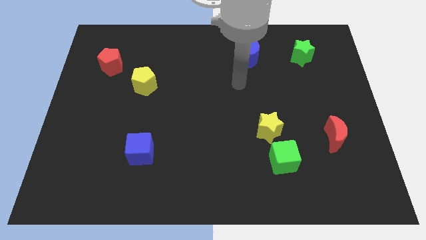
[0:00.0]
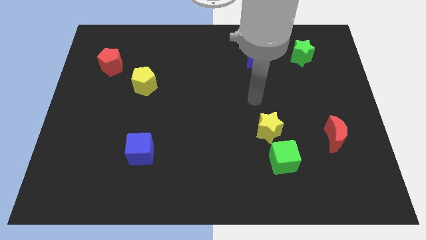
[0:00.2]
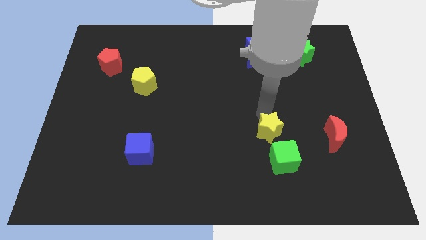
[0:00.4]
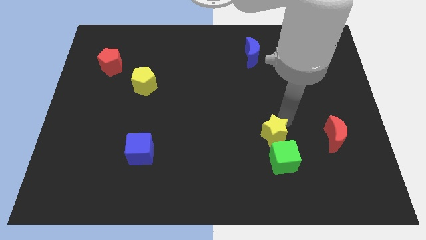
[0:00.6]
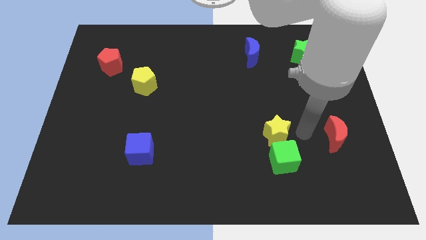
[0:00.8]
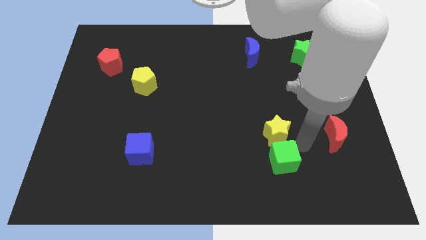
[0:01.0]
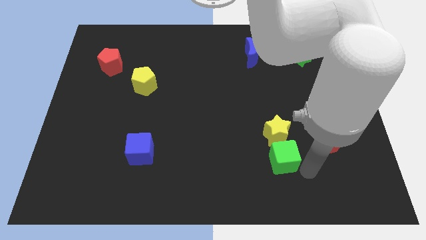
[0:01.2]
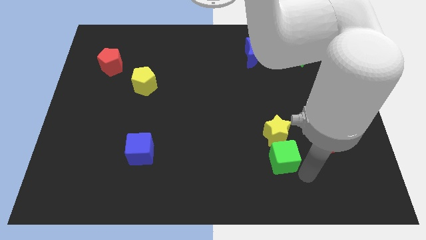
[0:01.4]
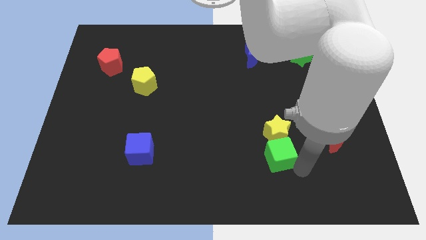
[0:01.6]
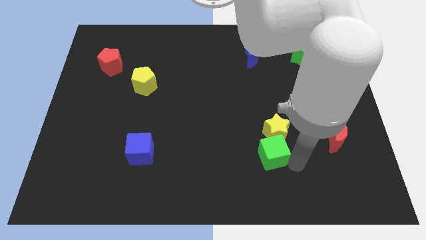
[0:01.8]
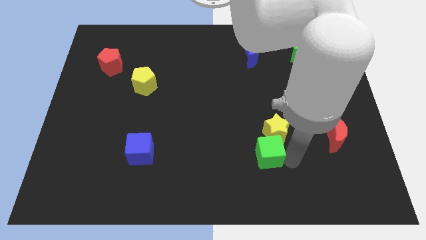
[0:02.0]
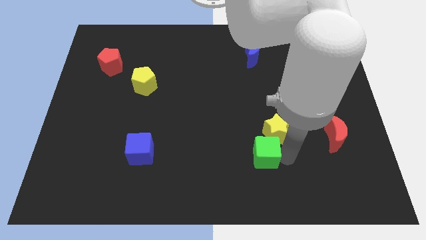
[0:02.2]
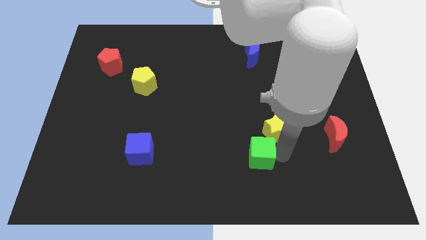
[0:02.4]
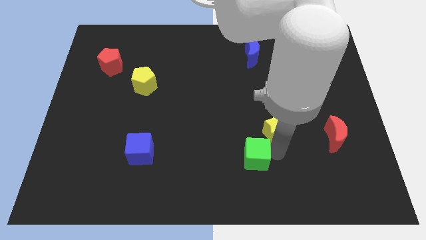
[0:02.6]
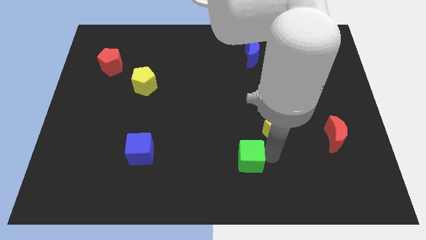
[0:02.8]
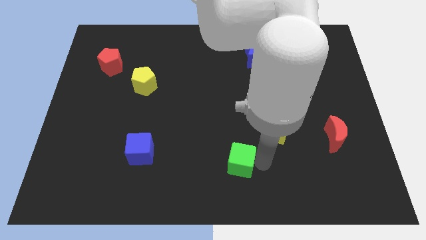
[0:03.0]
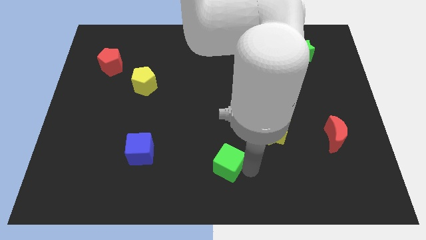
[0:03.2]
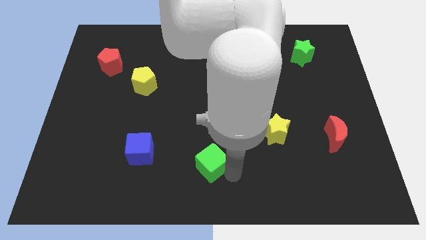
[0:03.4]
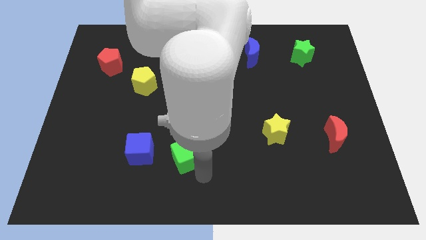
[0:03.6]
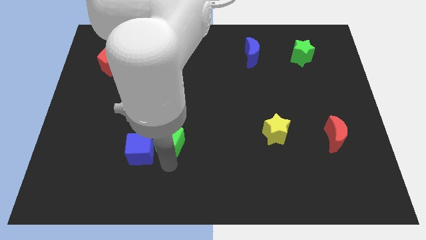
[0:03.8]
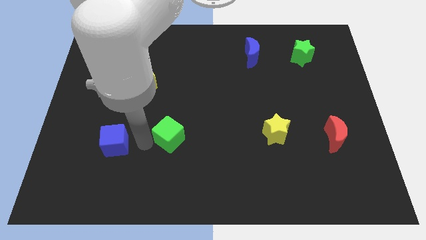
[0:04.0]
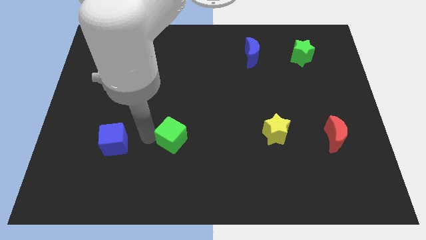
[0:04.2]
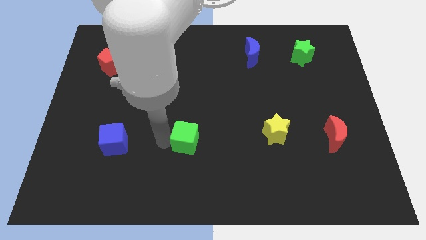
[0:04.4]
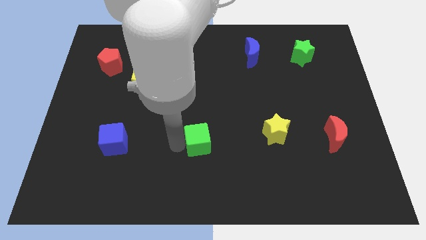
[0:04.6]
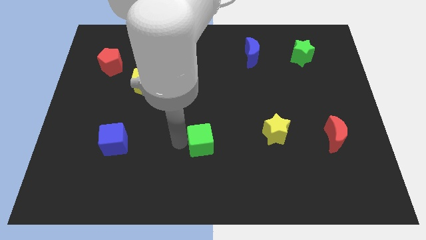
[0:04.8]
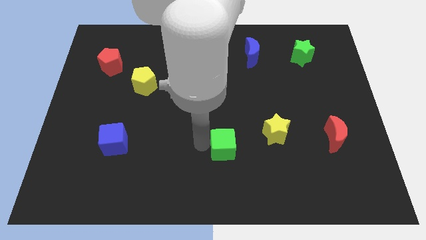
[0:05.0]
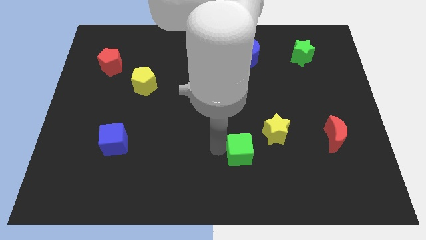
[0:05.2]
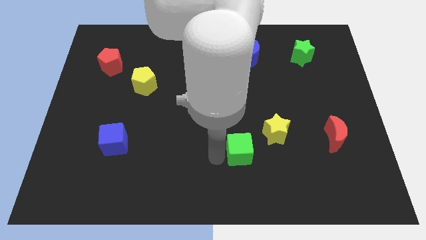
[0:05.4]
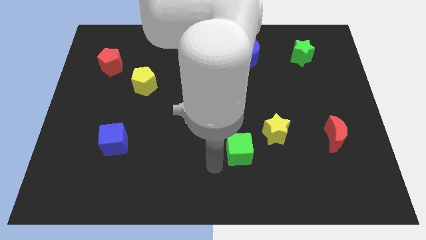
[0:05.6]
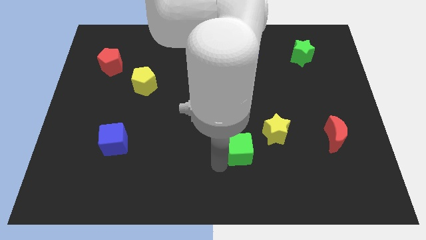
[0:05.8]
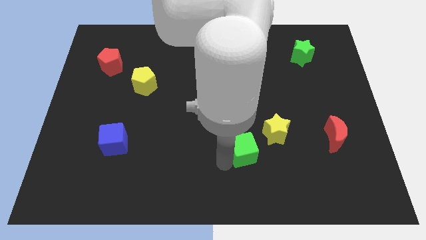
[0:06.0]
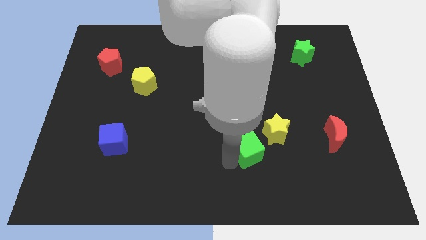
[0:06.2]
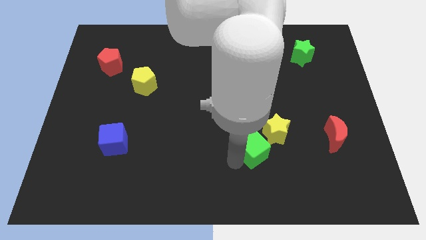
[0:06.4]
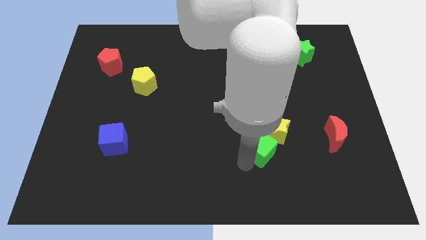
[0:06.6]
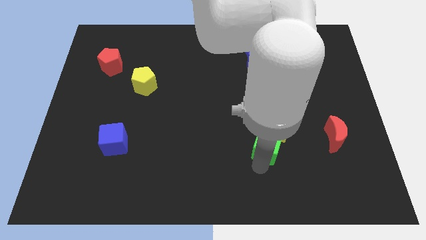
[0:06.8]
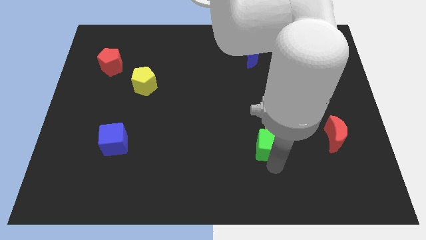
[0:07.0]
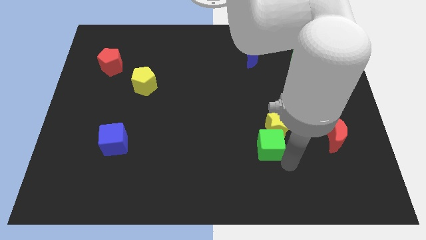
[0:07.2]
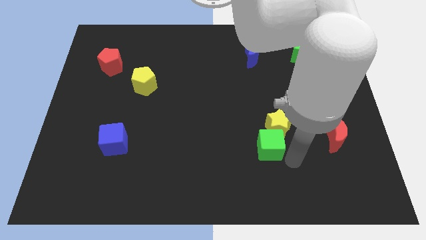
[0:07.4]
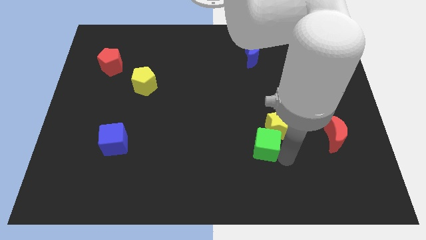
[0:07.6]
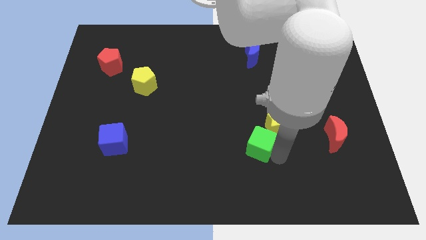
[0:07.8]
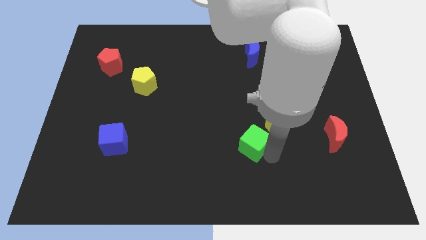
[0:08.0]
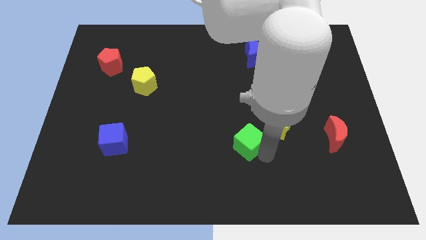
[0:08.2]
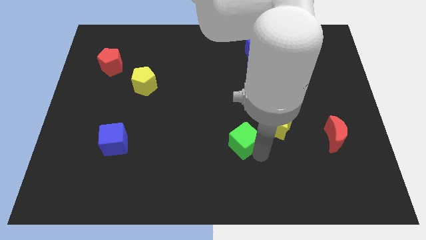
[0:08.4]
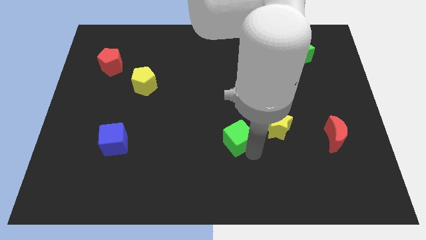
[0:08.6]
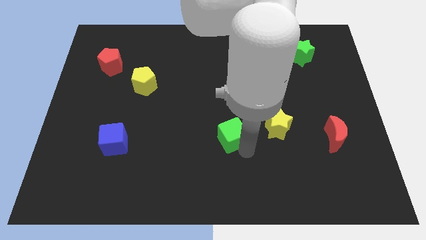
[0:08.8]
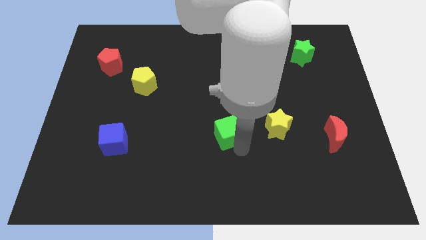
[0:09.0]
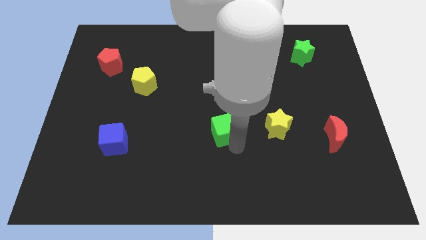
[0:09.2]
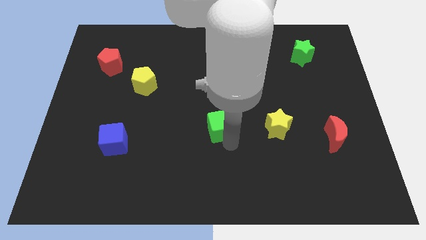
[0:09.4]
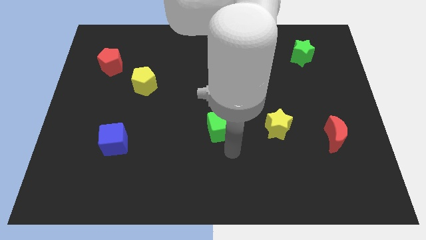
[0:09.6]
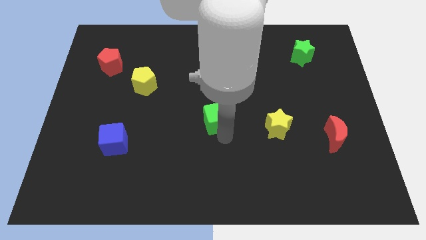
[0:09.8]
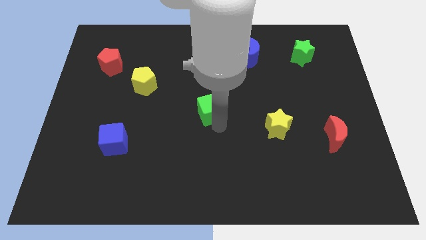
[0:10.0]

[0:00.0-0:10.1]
push the green cube up and left diagonally

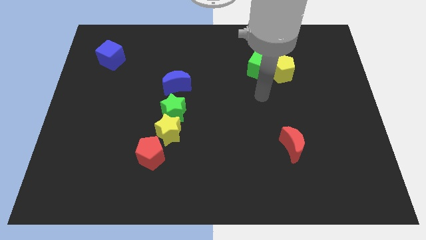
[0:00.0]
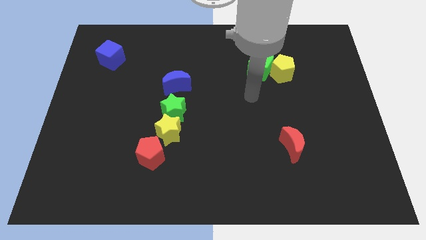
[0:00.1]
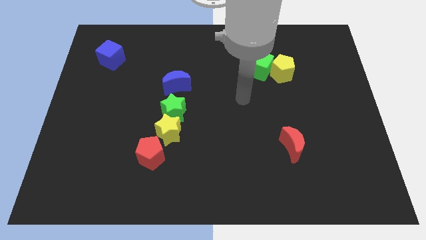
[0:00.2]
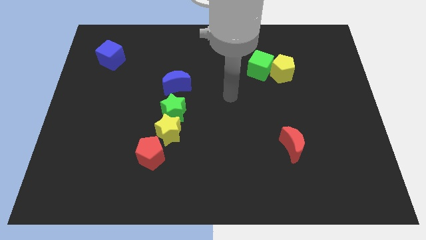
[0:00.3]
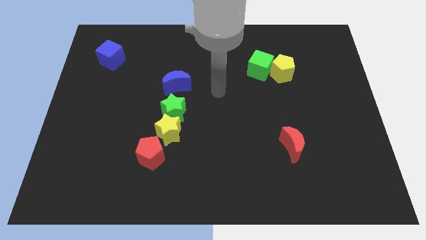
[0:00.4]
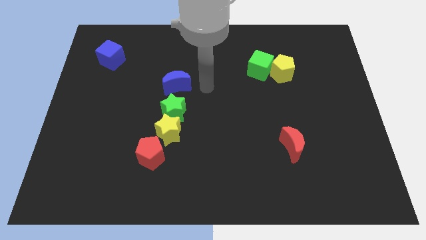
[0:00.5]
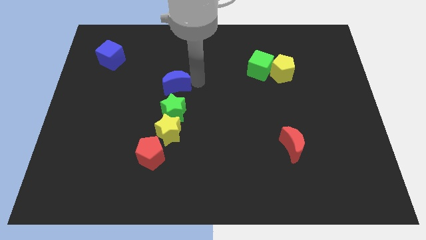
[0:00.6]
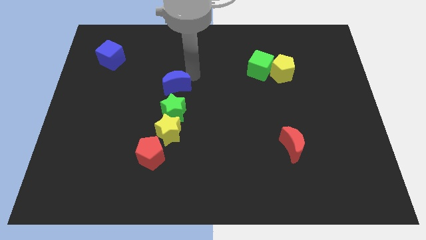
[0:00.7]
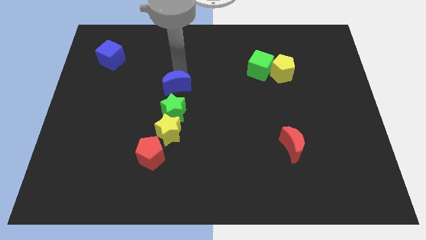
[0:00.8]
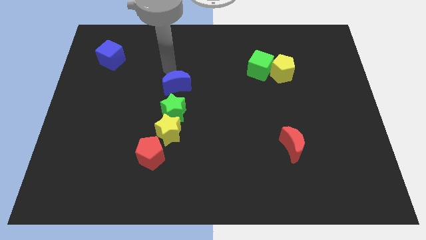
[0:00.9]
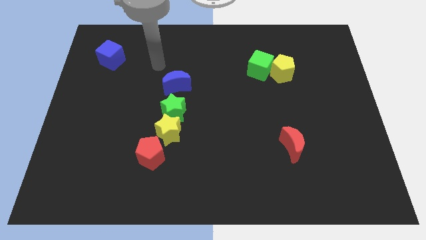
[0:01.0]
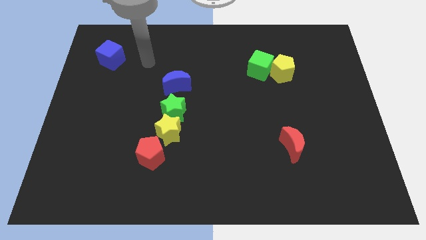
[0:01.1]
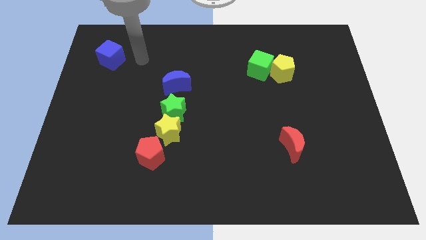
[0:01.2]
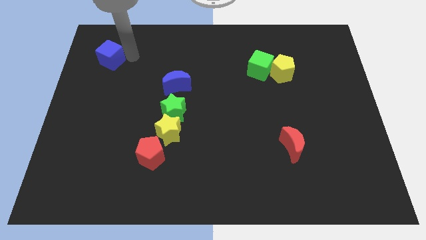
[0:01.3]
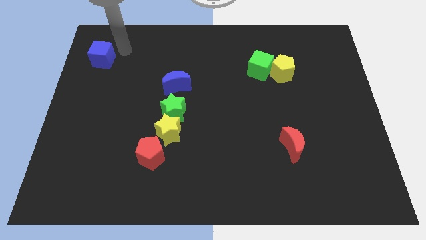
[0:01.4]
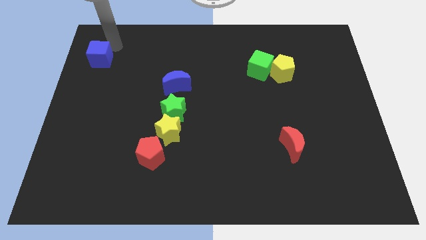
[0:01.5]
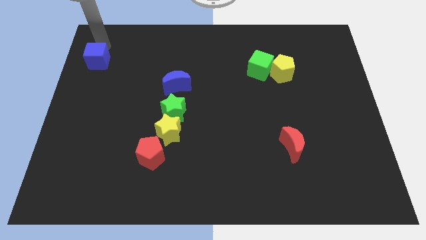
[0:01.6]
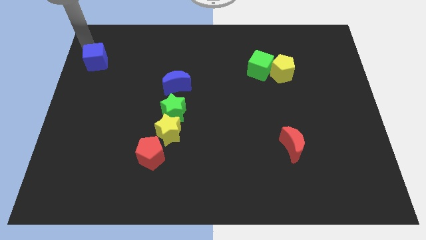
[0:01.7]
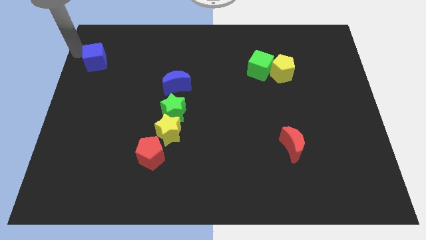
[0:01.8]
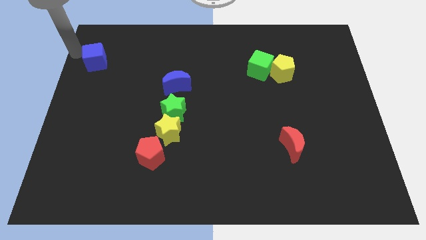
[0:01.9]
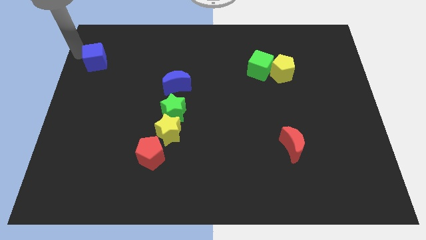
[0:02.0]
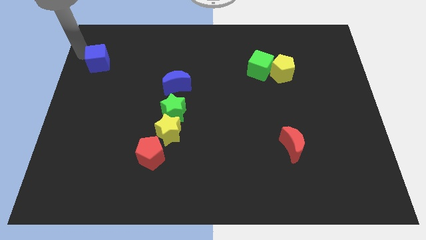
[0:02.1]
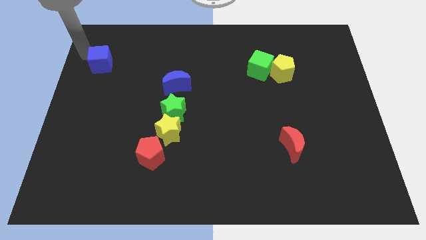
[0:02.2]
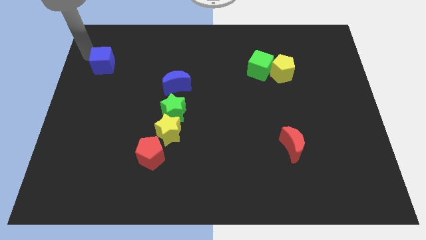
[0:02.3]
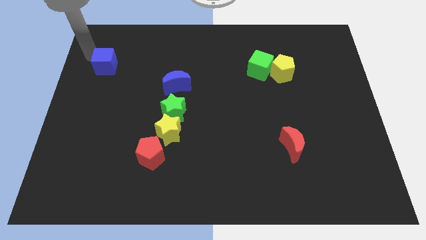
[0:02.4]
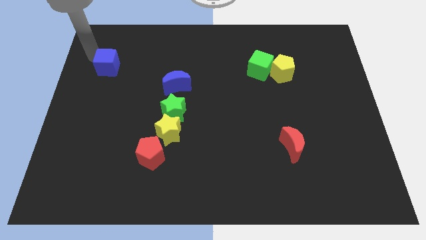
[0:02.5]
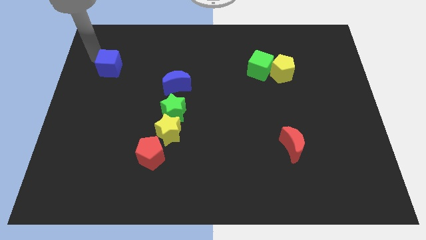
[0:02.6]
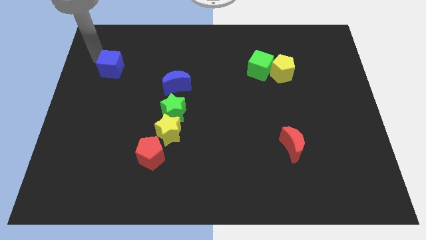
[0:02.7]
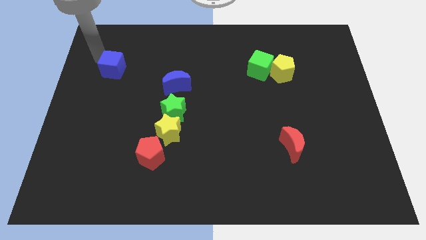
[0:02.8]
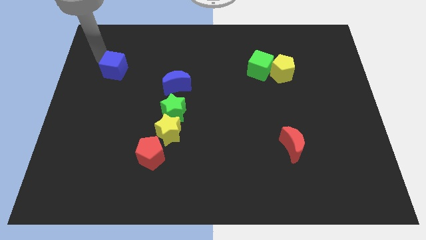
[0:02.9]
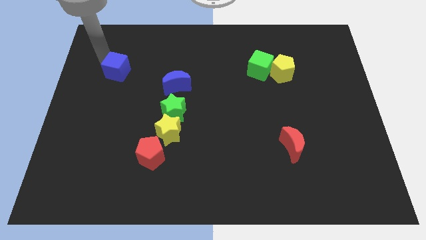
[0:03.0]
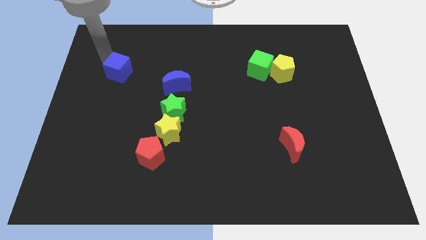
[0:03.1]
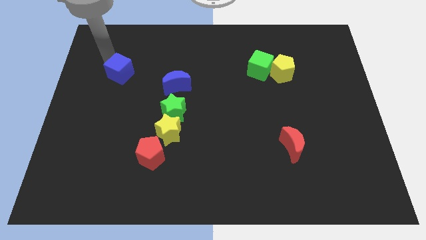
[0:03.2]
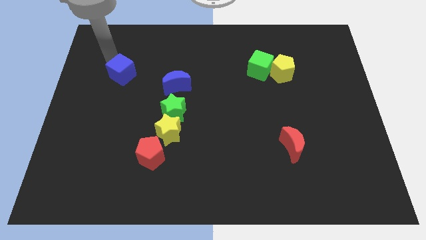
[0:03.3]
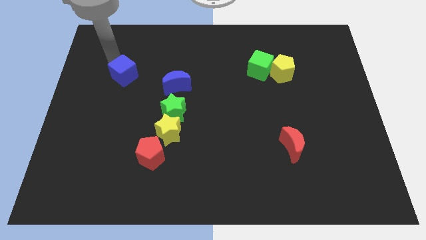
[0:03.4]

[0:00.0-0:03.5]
slightly move the blue cube down and to the right
